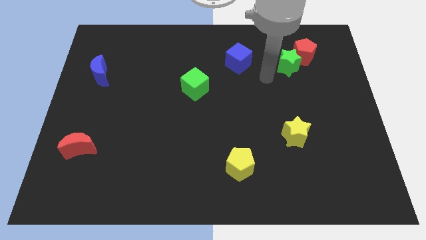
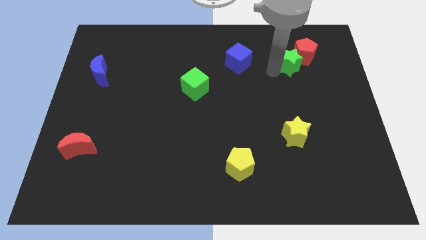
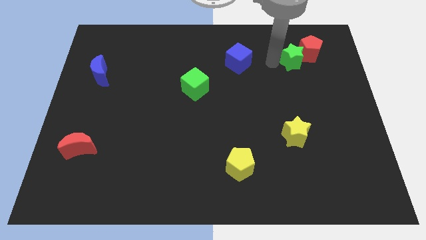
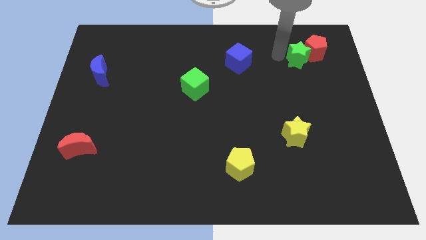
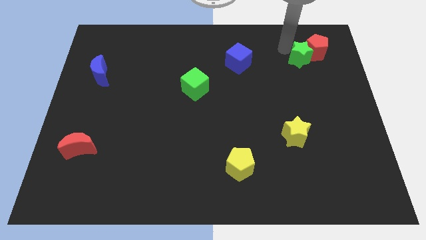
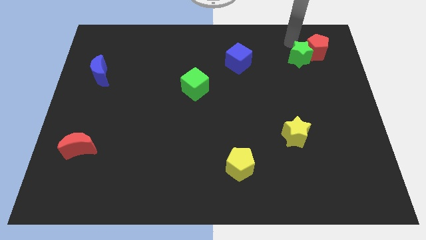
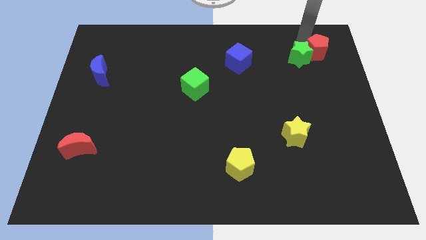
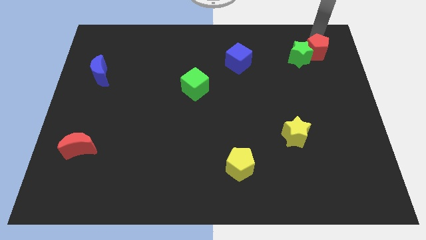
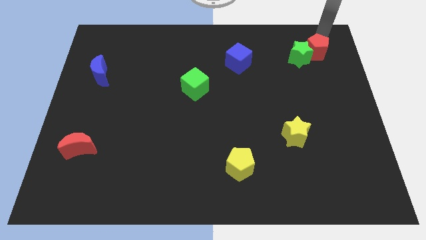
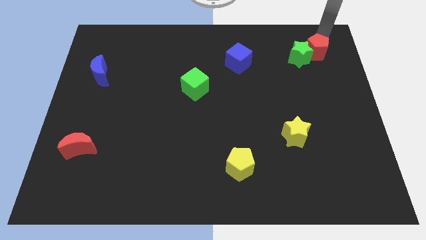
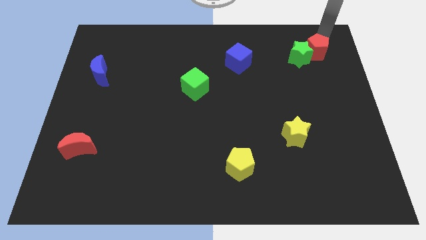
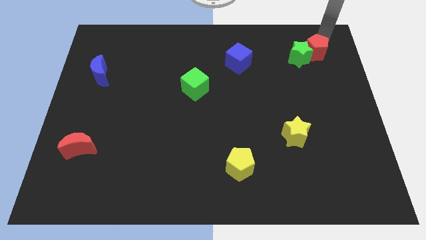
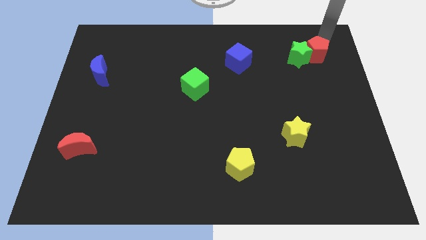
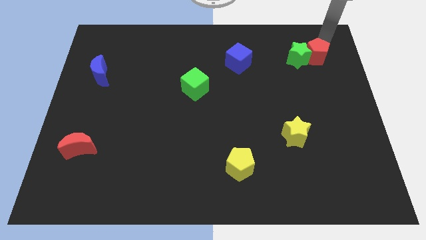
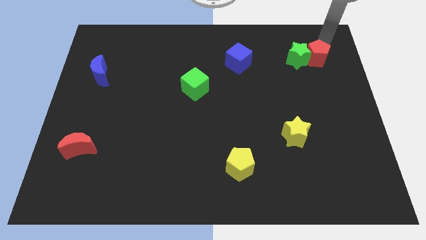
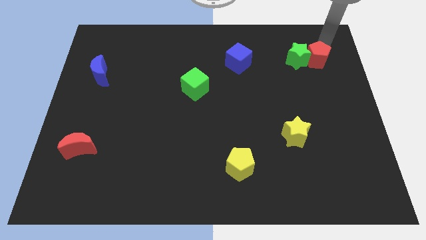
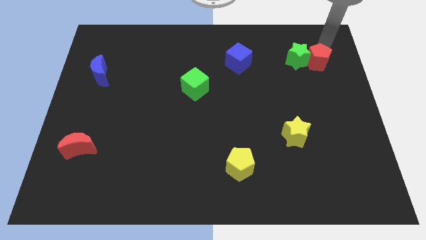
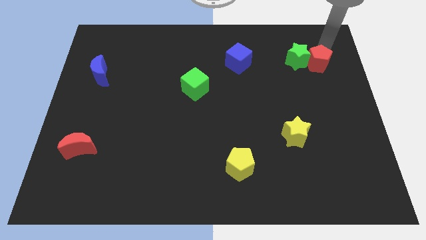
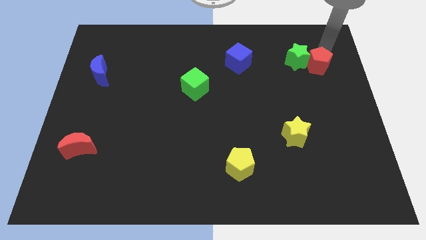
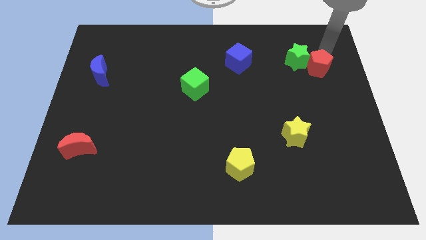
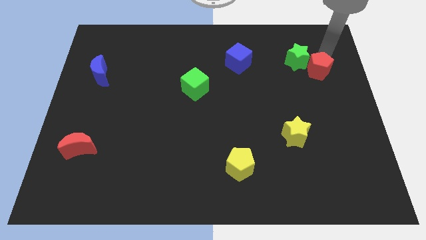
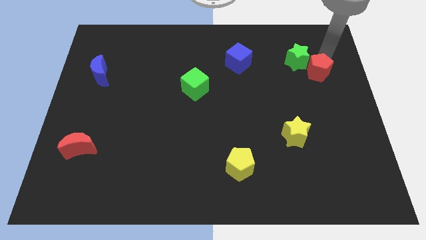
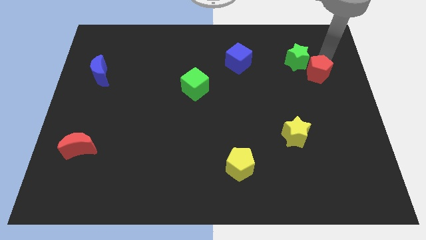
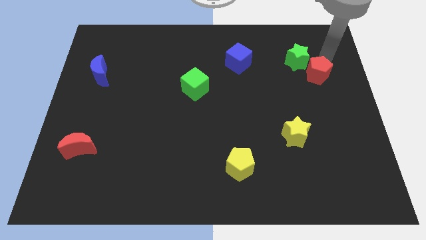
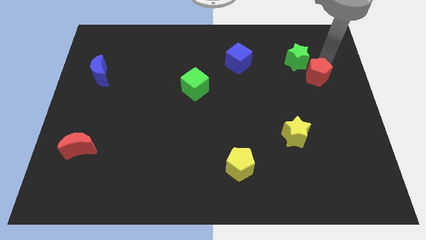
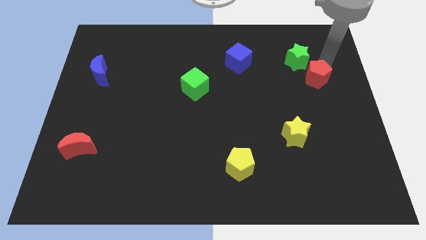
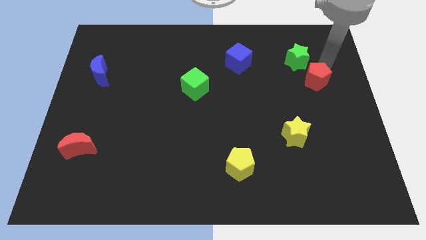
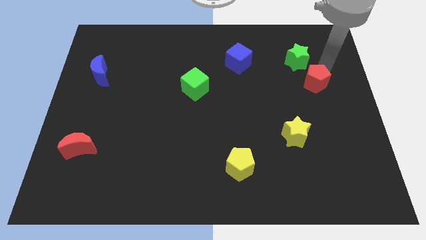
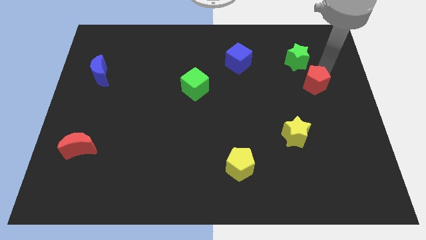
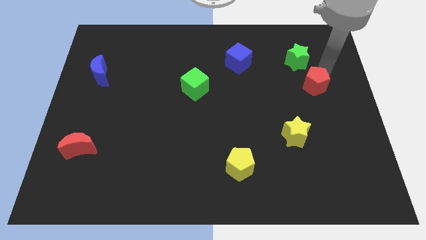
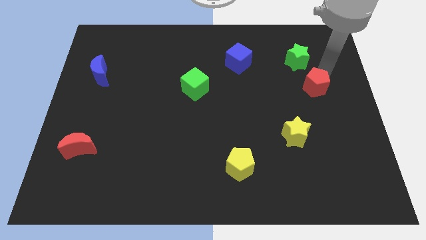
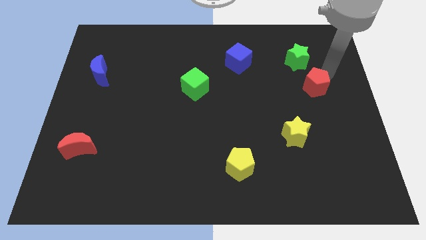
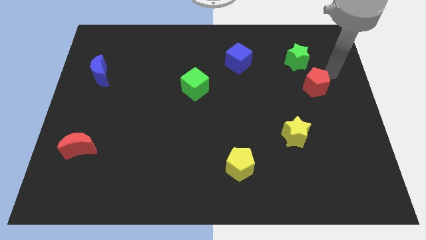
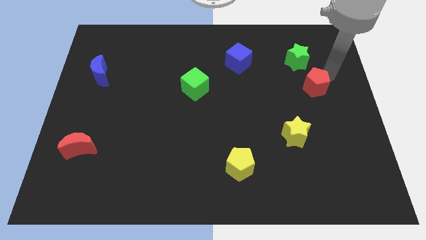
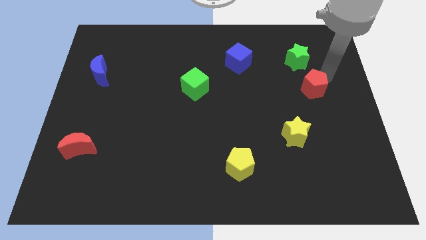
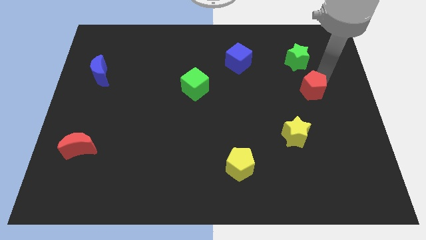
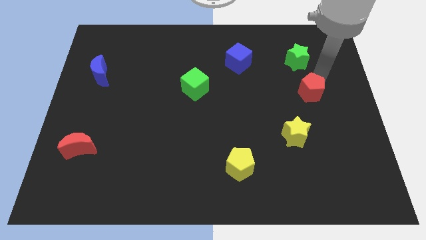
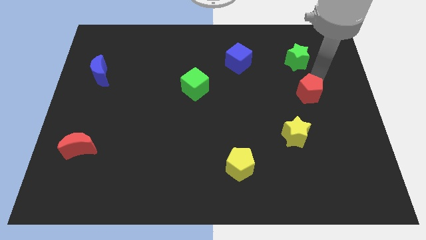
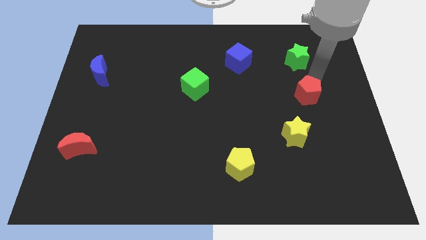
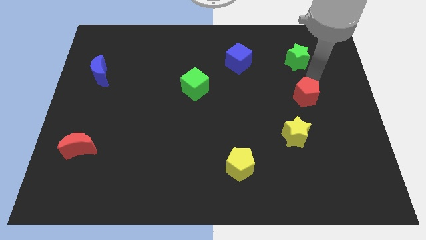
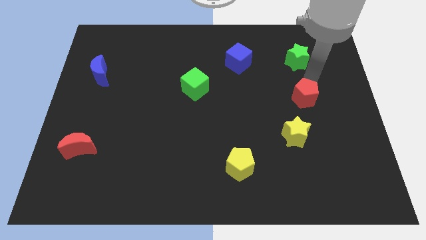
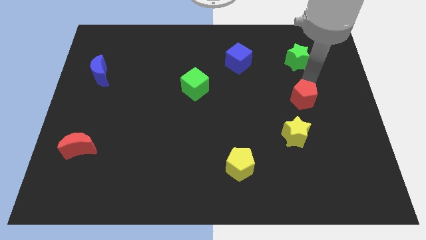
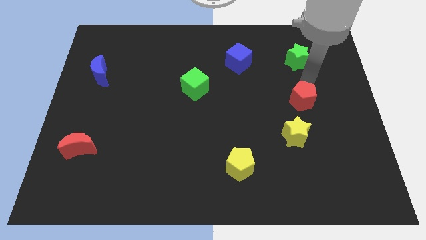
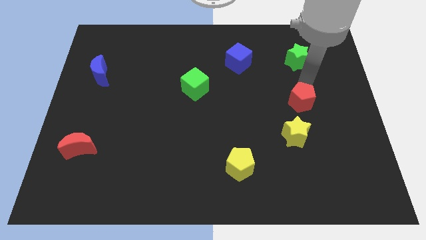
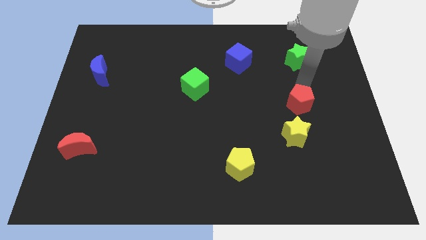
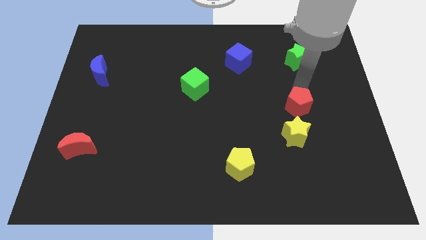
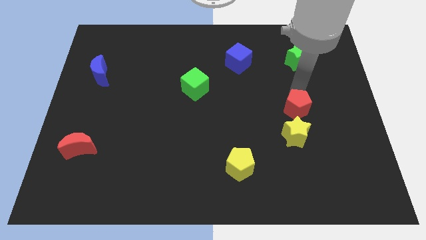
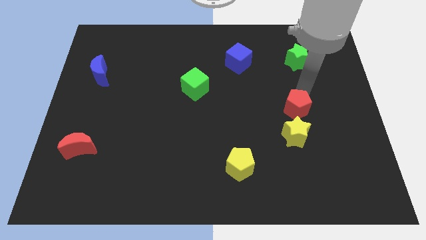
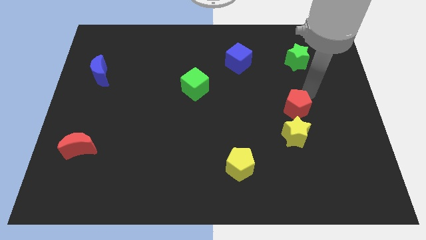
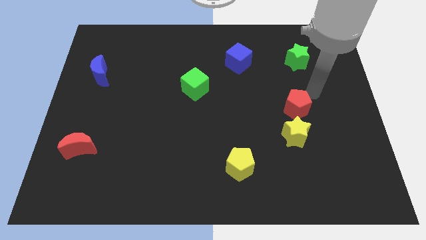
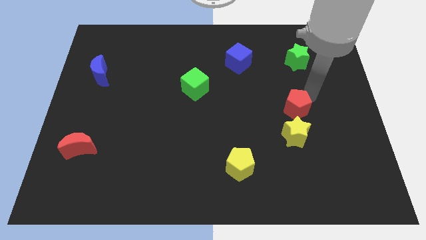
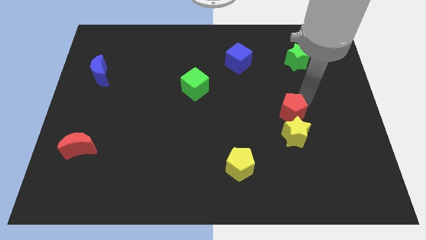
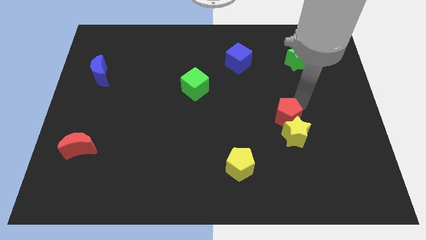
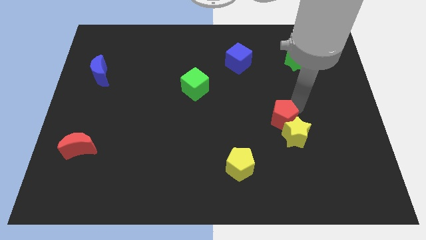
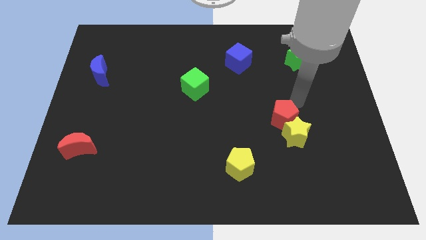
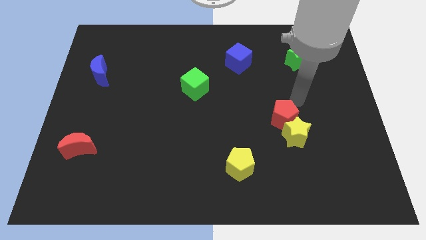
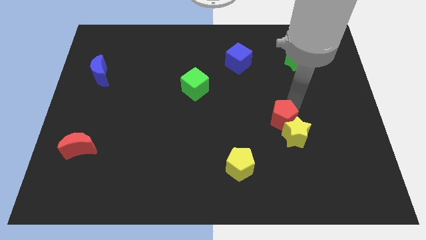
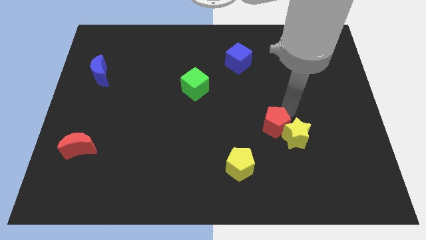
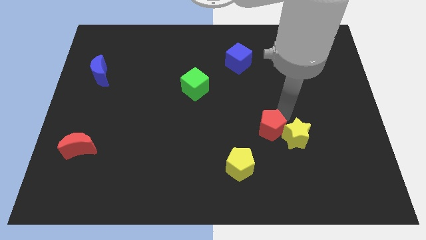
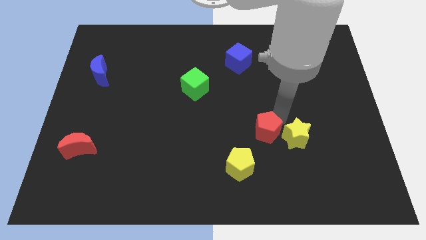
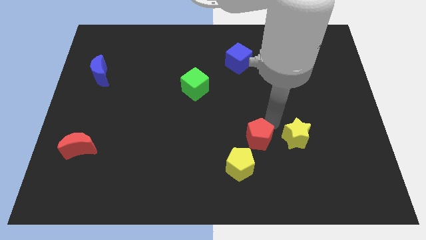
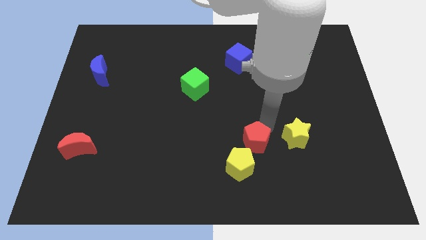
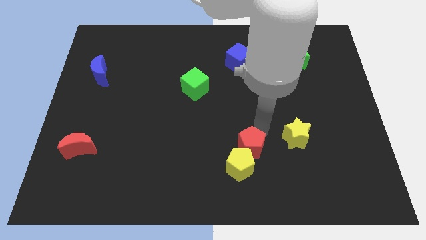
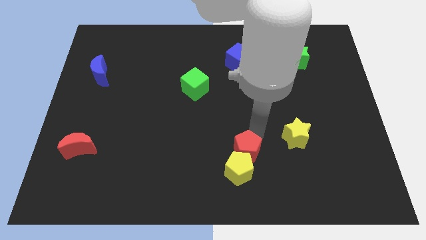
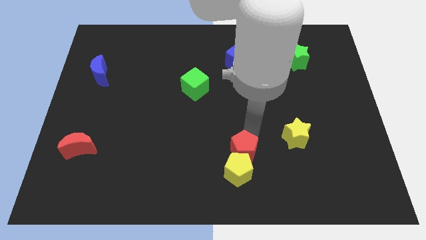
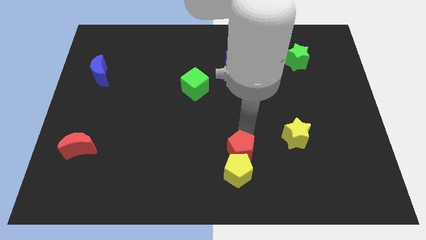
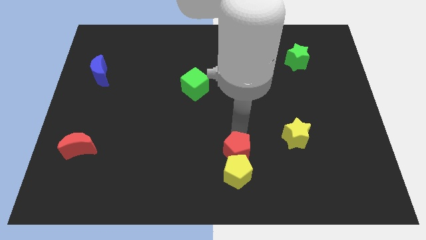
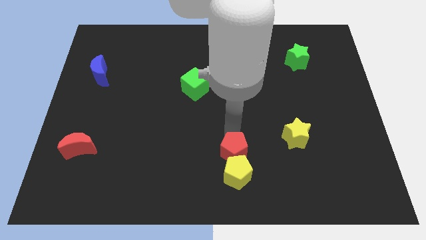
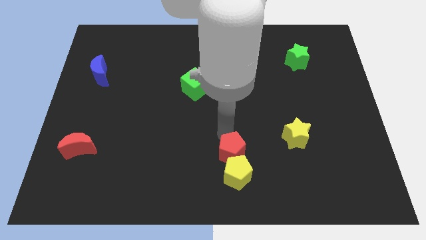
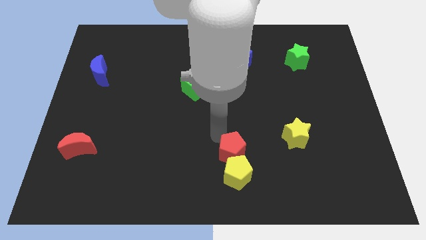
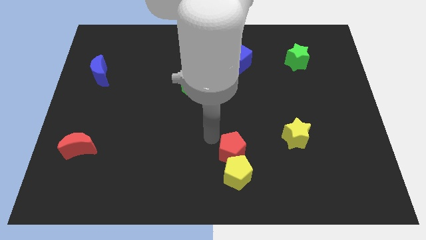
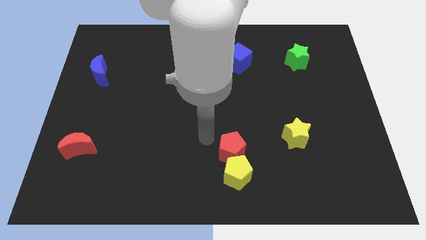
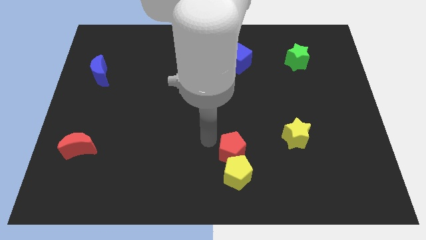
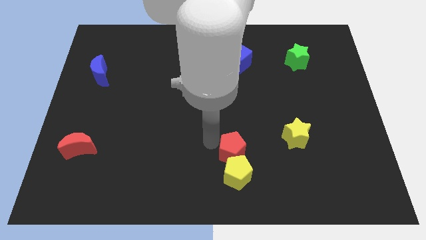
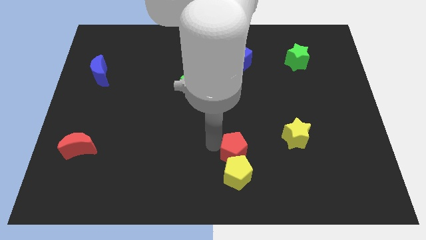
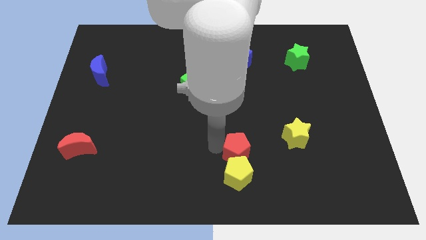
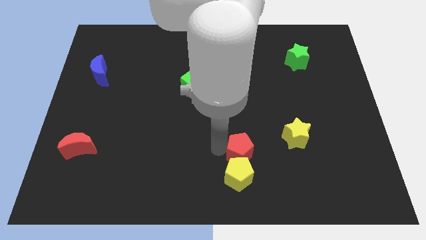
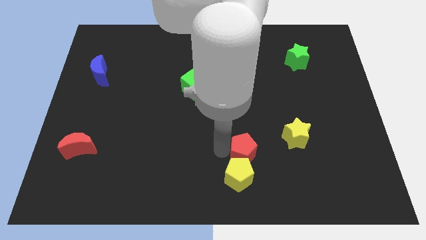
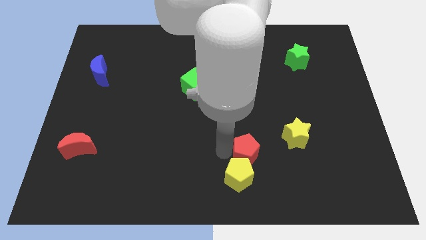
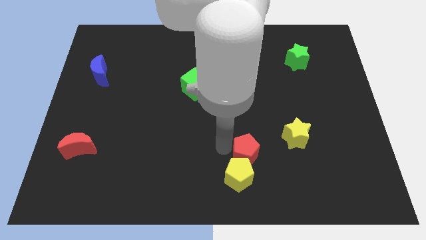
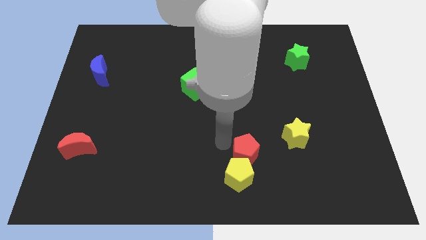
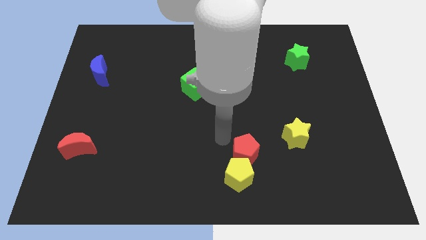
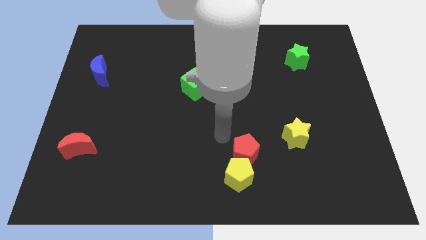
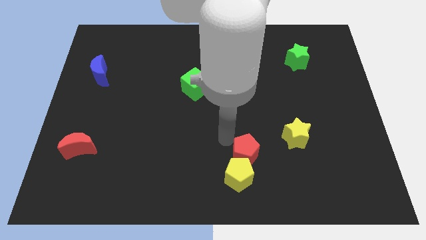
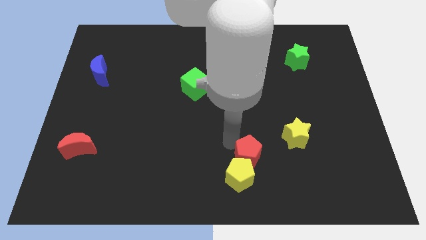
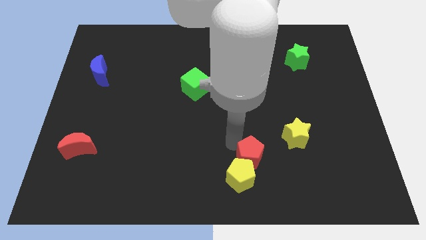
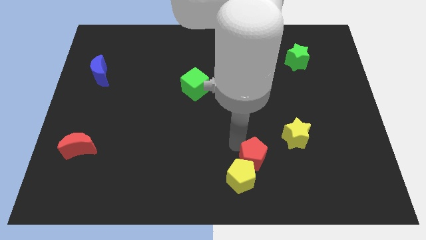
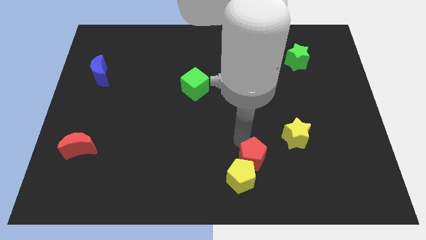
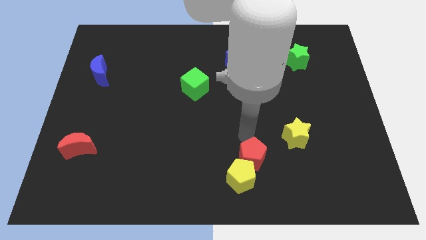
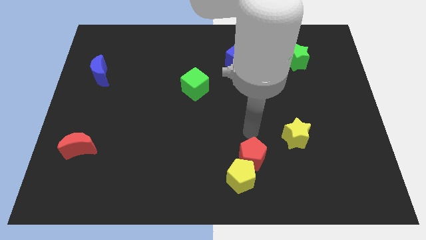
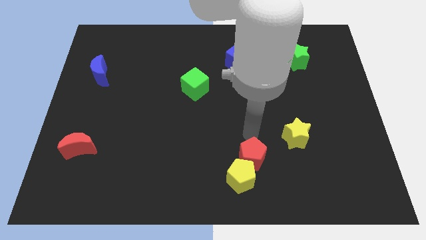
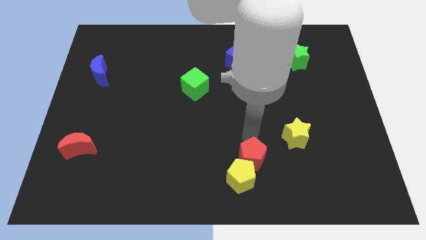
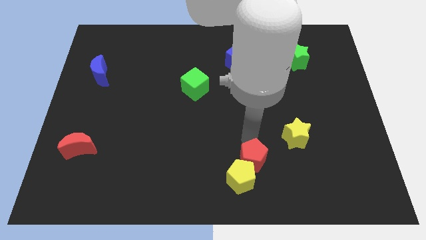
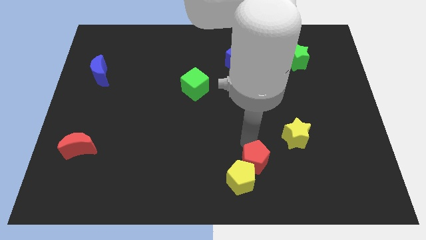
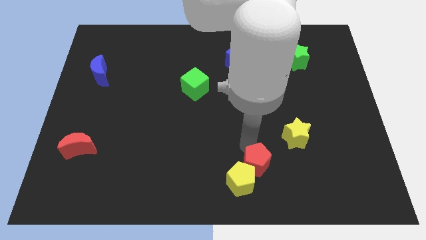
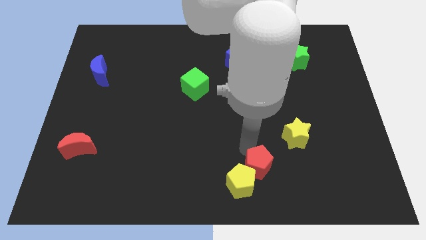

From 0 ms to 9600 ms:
move the red pentagon to the bottom
